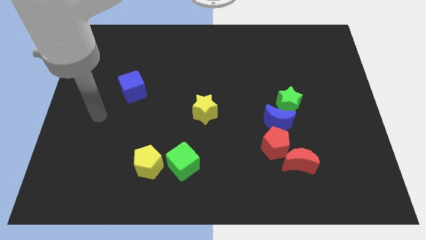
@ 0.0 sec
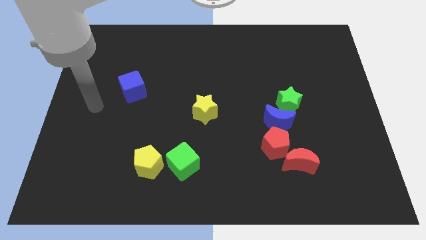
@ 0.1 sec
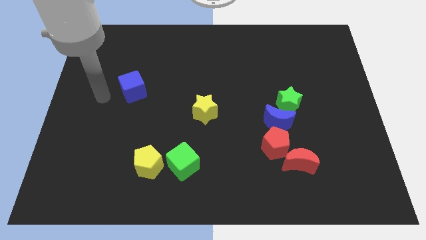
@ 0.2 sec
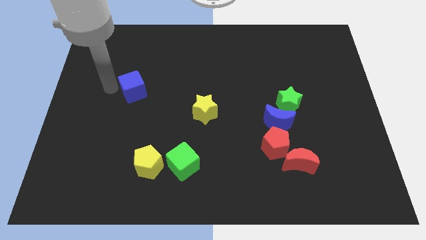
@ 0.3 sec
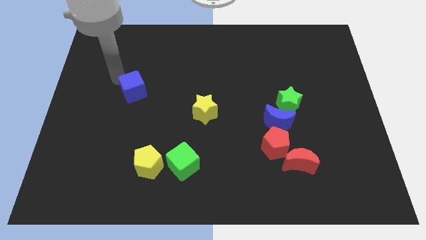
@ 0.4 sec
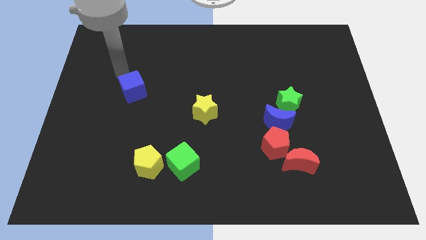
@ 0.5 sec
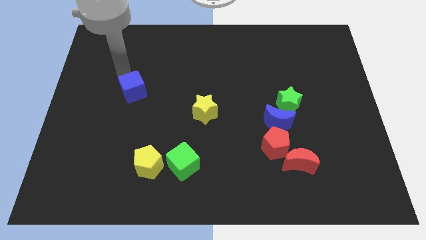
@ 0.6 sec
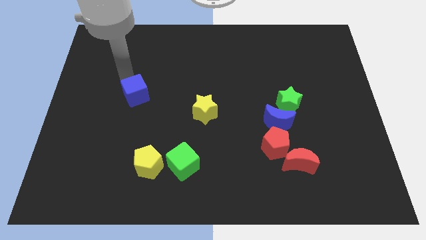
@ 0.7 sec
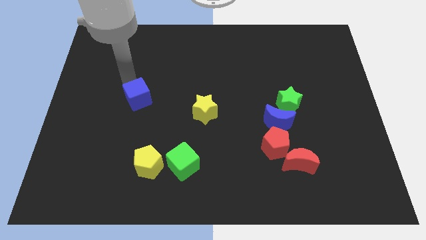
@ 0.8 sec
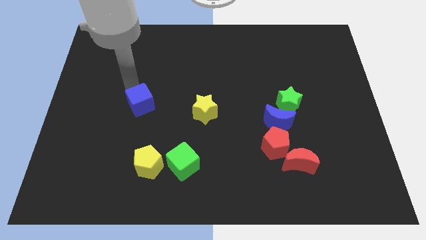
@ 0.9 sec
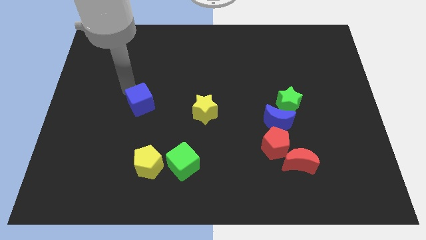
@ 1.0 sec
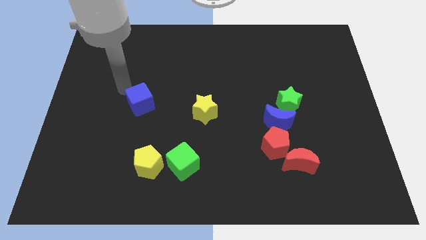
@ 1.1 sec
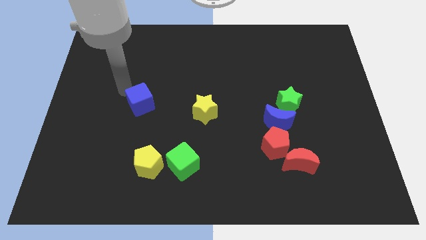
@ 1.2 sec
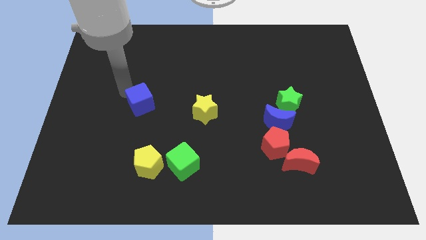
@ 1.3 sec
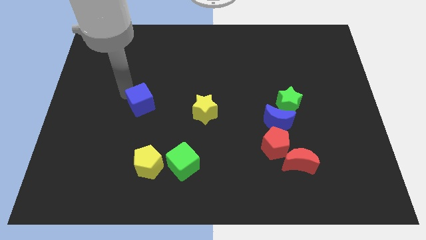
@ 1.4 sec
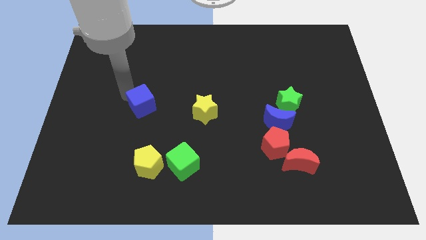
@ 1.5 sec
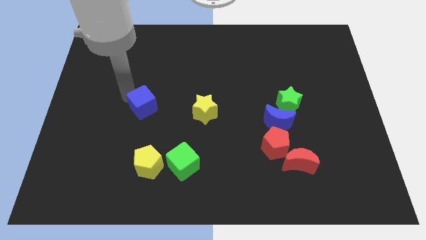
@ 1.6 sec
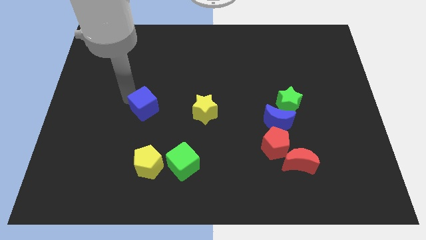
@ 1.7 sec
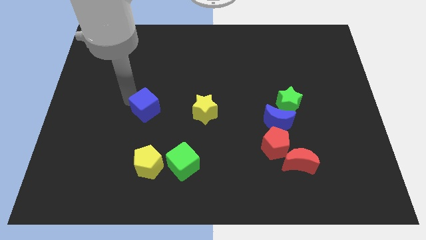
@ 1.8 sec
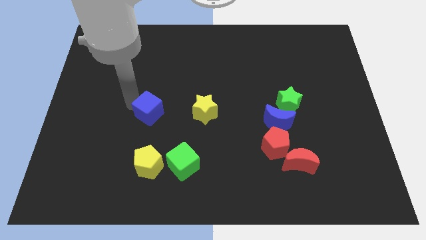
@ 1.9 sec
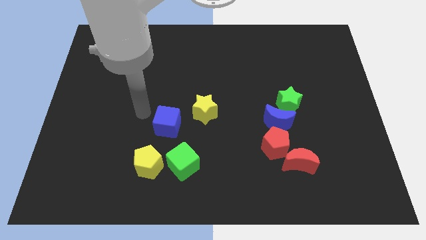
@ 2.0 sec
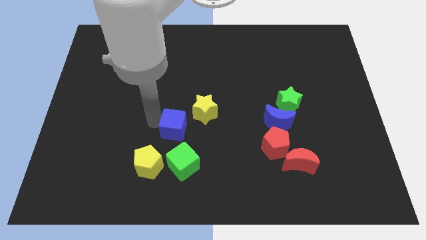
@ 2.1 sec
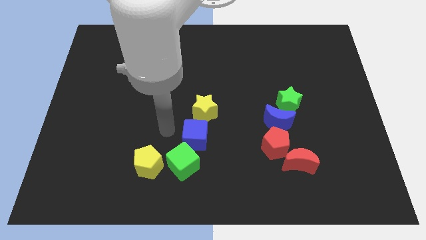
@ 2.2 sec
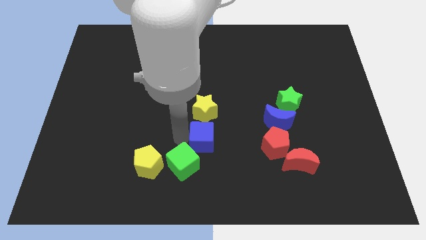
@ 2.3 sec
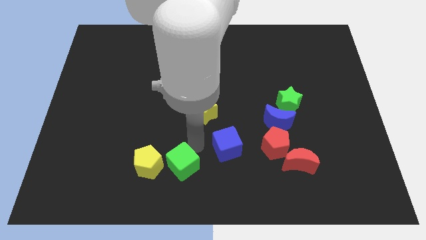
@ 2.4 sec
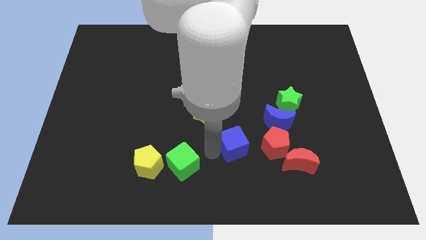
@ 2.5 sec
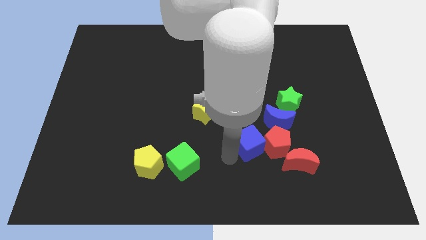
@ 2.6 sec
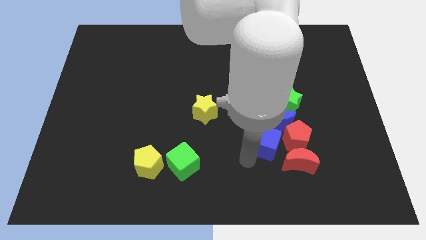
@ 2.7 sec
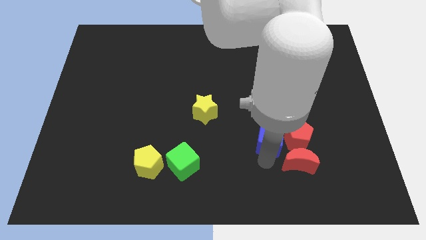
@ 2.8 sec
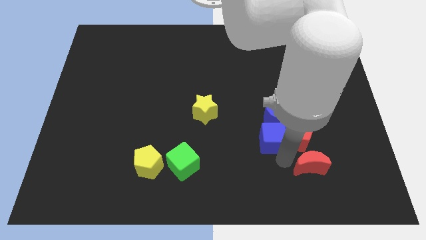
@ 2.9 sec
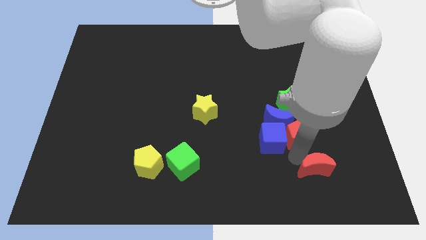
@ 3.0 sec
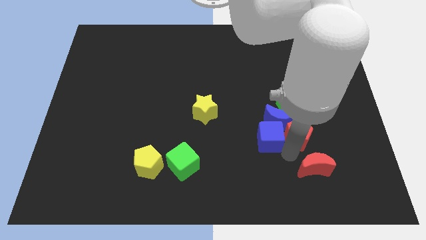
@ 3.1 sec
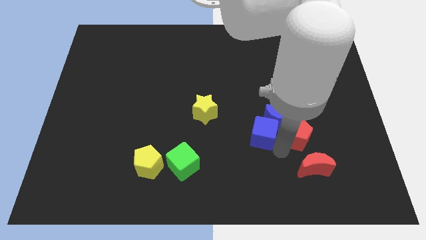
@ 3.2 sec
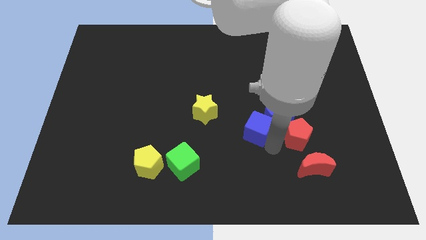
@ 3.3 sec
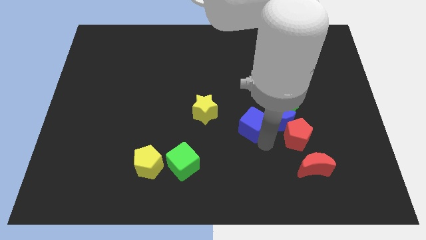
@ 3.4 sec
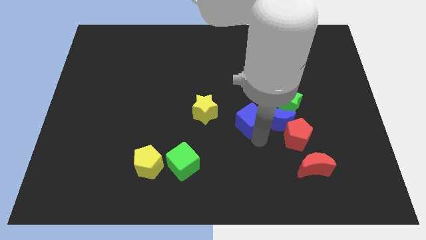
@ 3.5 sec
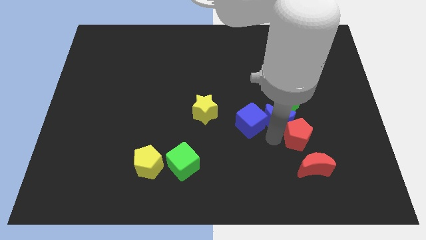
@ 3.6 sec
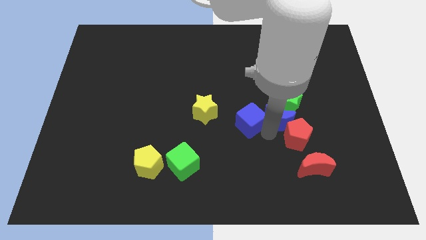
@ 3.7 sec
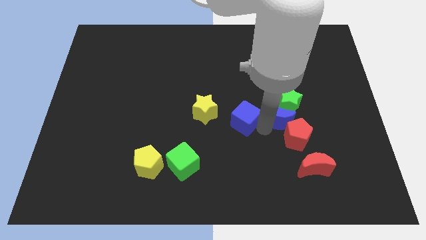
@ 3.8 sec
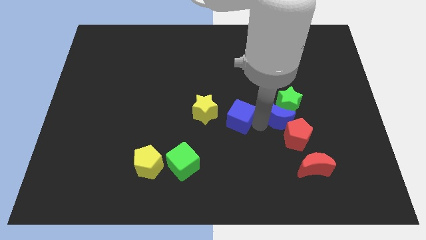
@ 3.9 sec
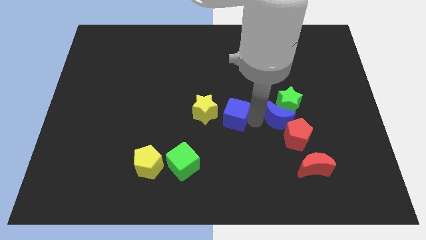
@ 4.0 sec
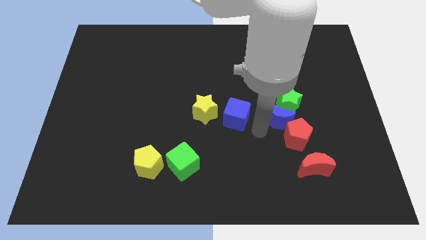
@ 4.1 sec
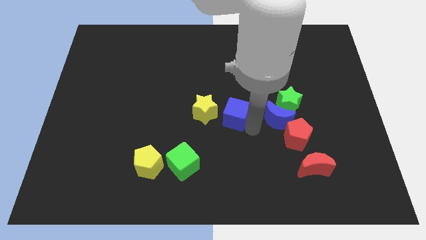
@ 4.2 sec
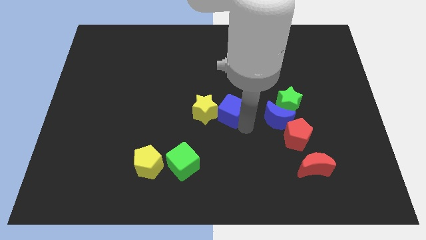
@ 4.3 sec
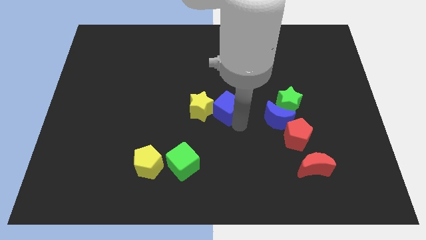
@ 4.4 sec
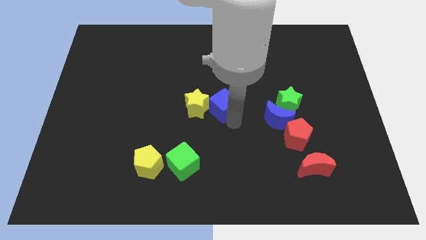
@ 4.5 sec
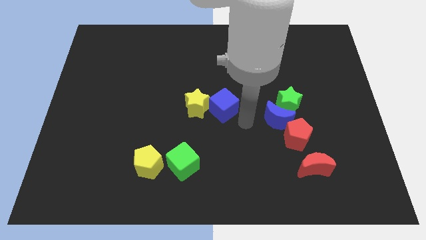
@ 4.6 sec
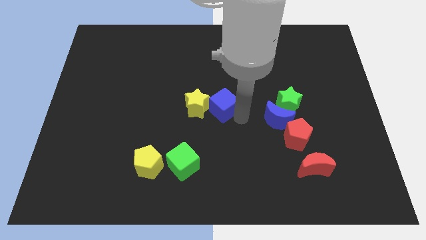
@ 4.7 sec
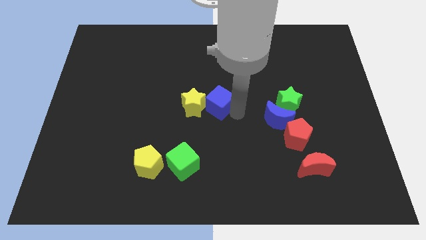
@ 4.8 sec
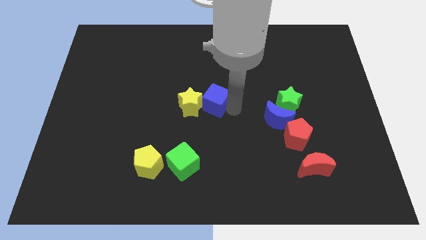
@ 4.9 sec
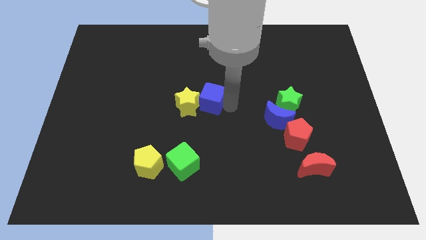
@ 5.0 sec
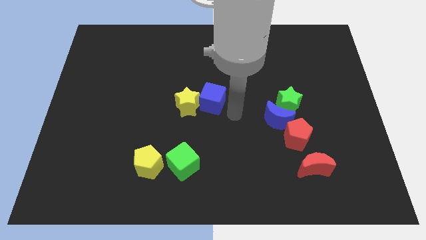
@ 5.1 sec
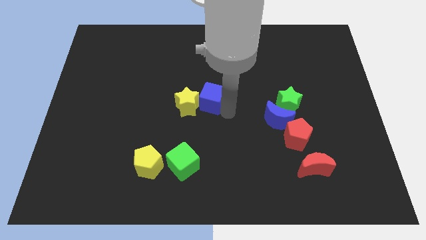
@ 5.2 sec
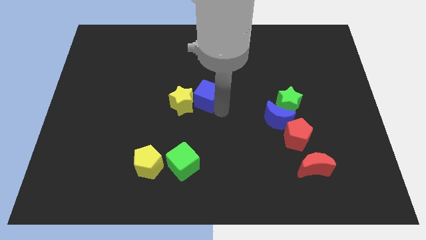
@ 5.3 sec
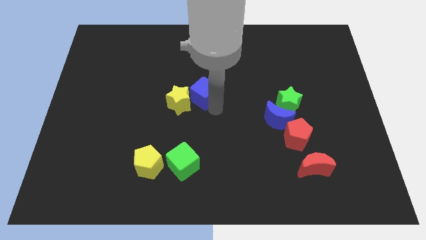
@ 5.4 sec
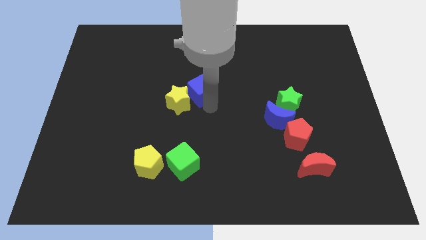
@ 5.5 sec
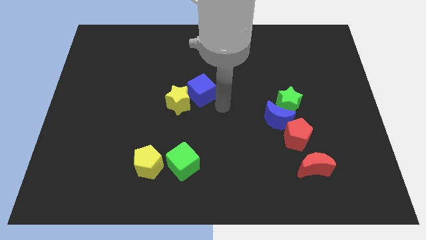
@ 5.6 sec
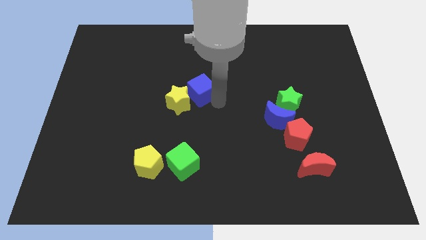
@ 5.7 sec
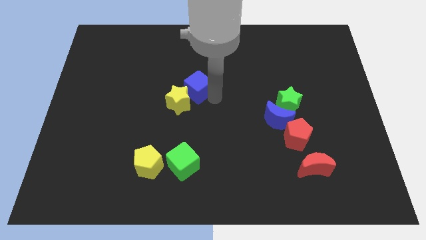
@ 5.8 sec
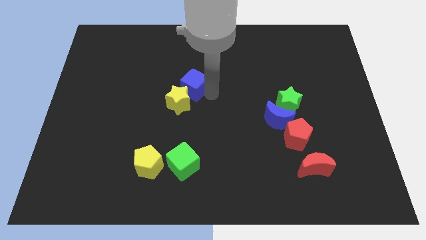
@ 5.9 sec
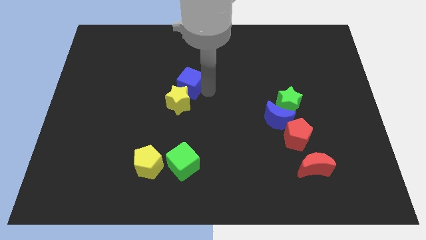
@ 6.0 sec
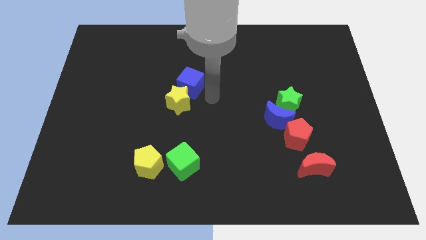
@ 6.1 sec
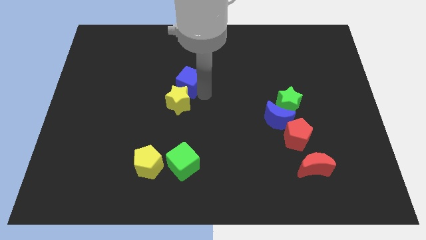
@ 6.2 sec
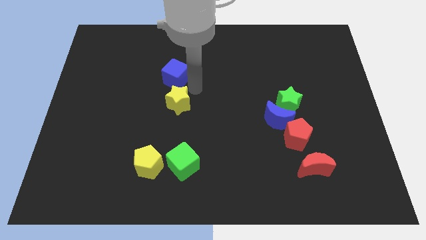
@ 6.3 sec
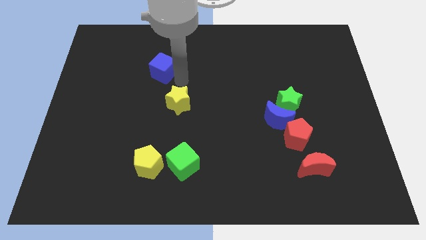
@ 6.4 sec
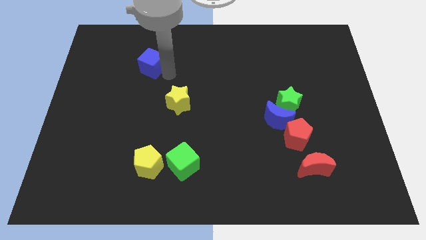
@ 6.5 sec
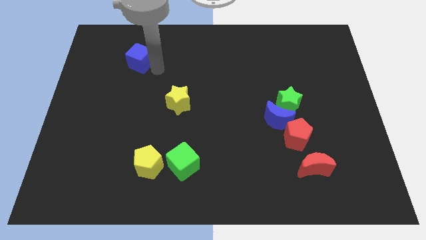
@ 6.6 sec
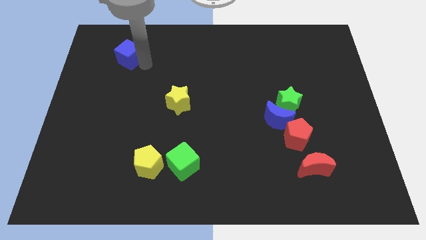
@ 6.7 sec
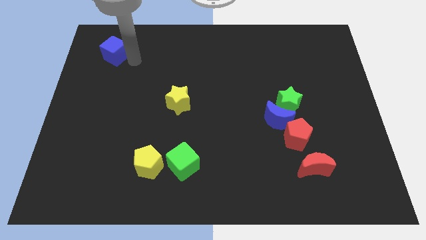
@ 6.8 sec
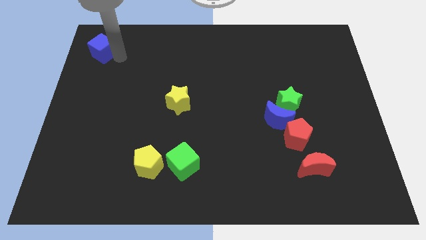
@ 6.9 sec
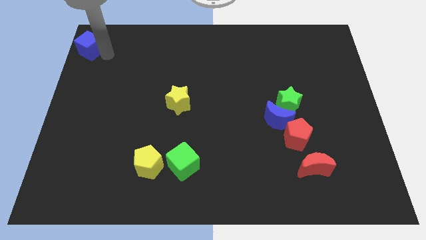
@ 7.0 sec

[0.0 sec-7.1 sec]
put the blue cube to the top left corner
